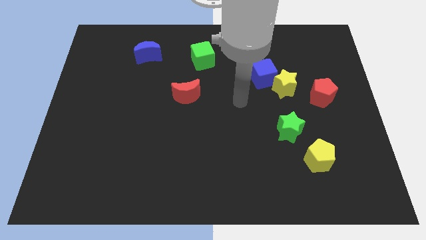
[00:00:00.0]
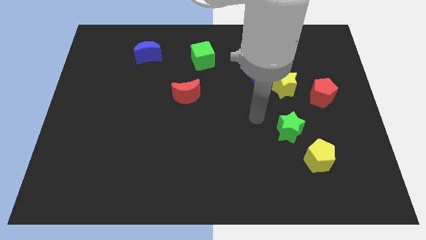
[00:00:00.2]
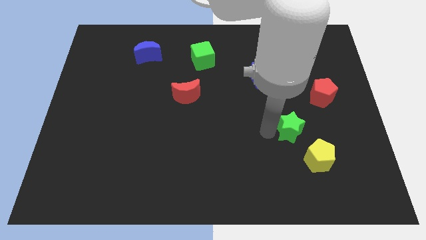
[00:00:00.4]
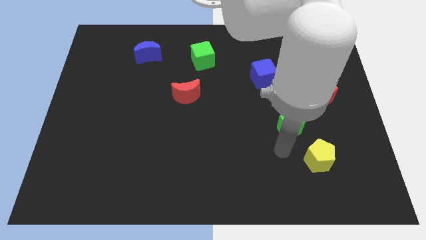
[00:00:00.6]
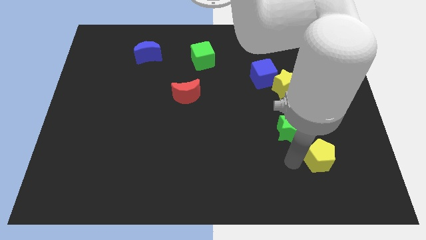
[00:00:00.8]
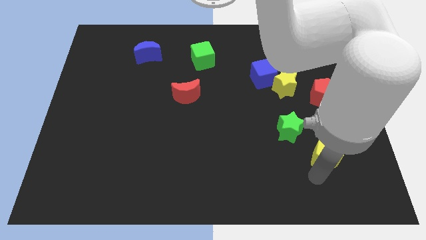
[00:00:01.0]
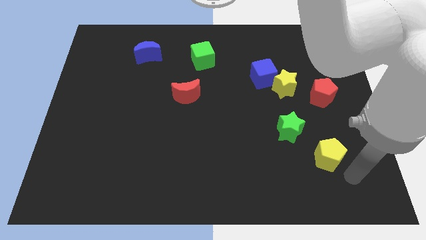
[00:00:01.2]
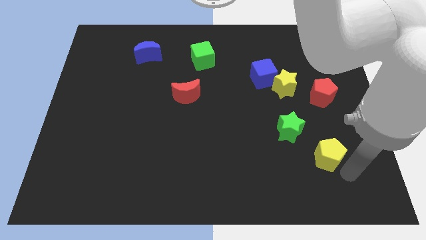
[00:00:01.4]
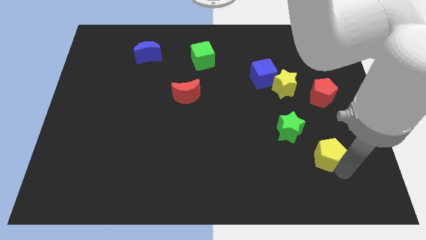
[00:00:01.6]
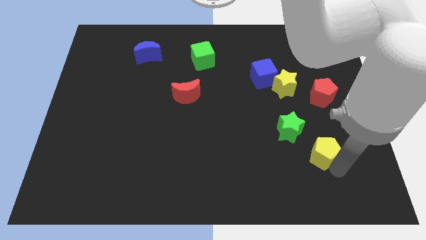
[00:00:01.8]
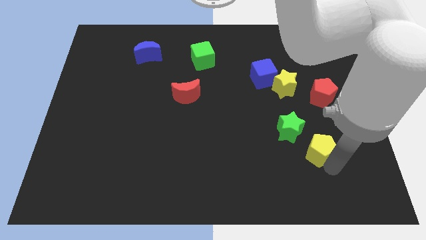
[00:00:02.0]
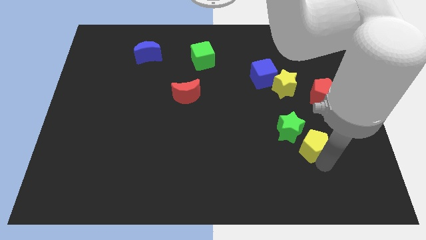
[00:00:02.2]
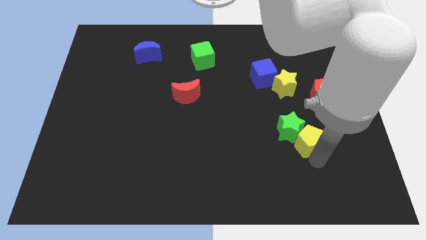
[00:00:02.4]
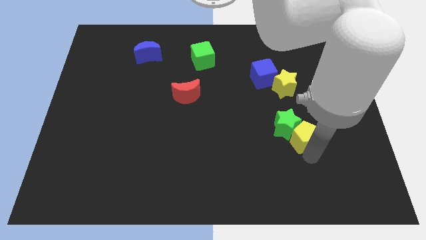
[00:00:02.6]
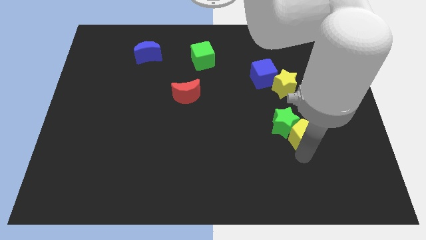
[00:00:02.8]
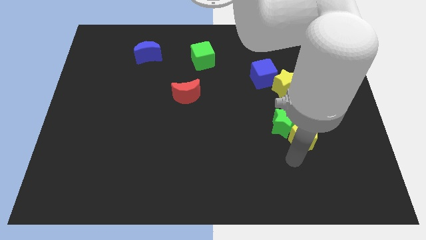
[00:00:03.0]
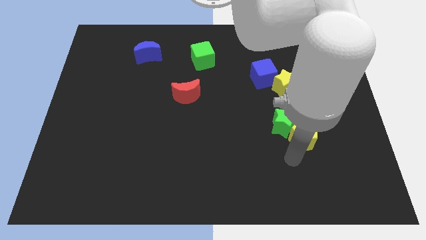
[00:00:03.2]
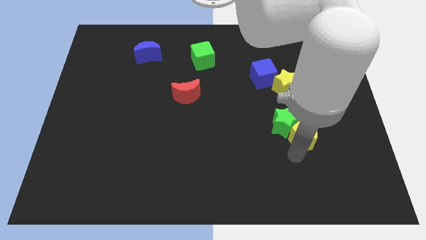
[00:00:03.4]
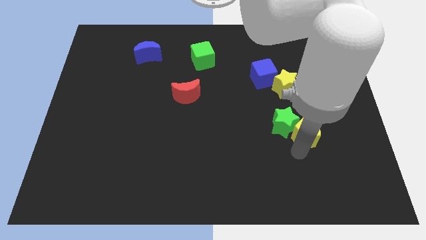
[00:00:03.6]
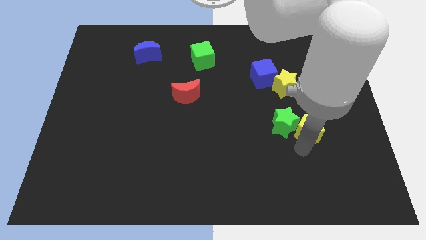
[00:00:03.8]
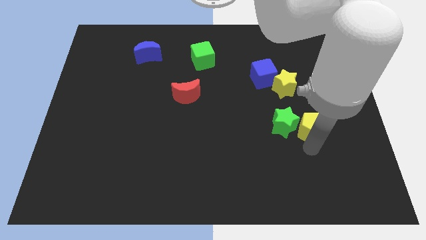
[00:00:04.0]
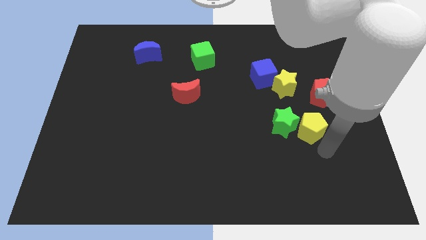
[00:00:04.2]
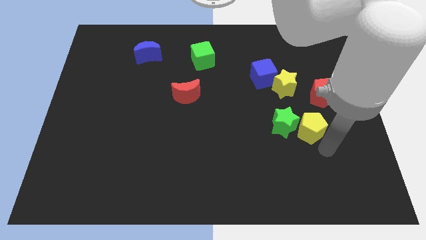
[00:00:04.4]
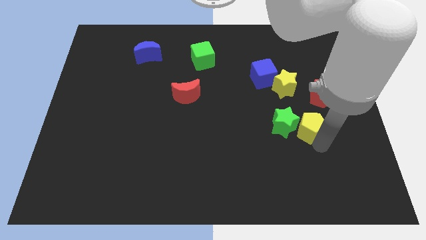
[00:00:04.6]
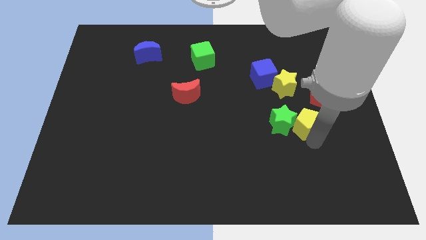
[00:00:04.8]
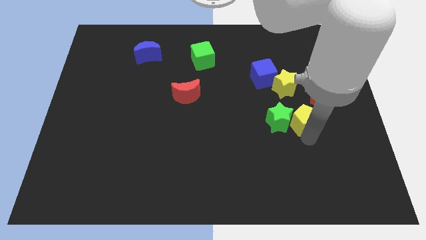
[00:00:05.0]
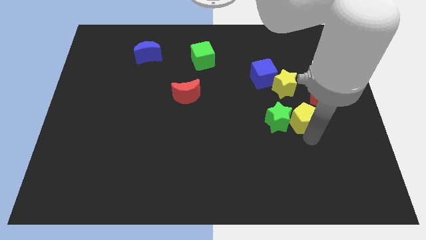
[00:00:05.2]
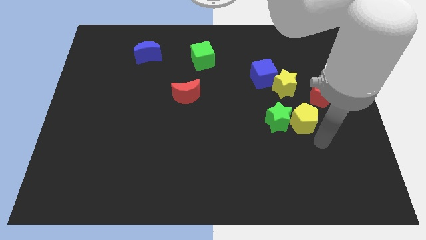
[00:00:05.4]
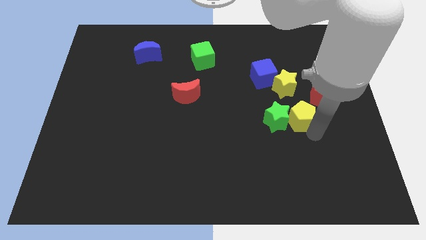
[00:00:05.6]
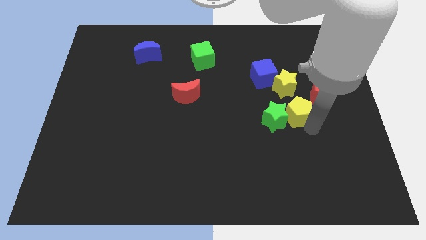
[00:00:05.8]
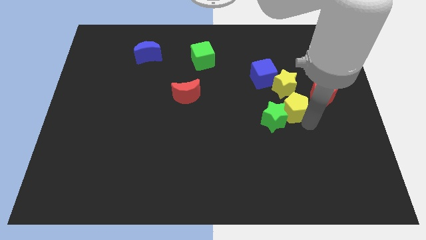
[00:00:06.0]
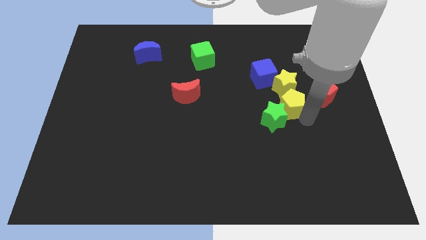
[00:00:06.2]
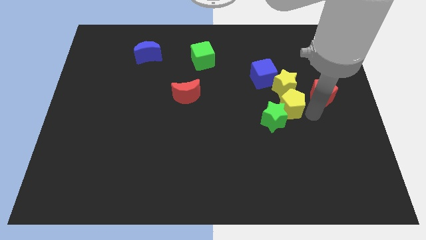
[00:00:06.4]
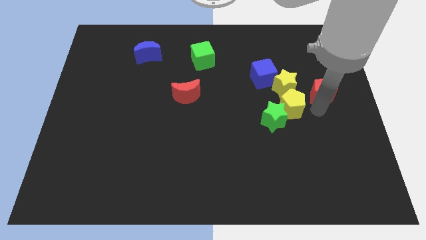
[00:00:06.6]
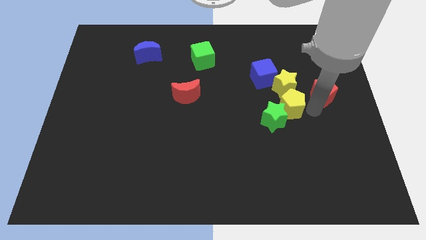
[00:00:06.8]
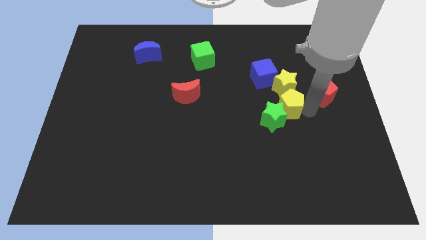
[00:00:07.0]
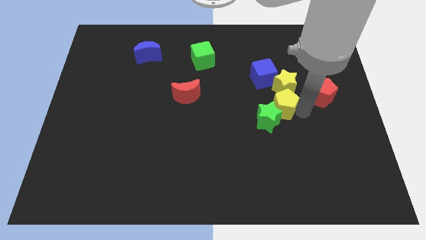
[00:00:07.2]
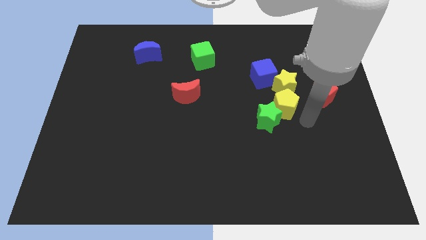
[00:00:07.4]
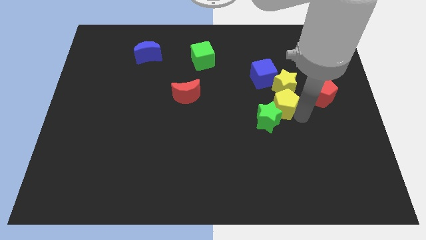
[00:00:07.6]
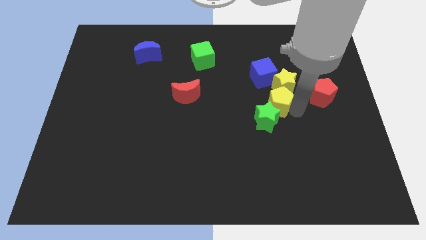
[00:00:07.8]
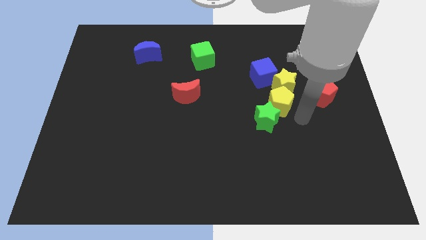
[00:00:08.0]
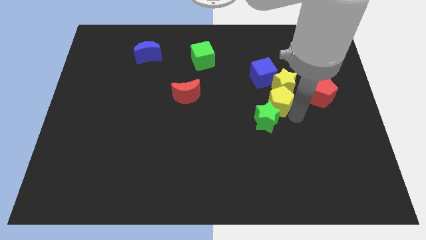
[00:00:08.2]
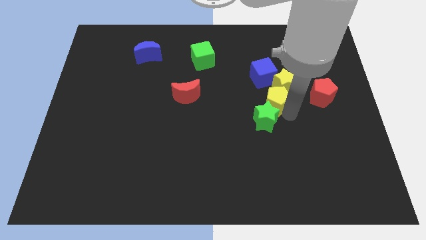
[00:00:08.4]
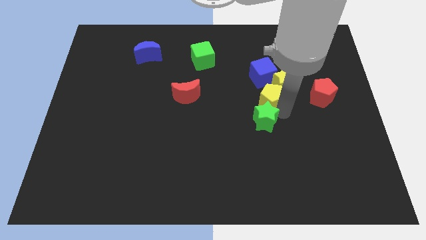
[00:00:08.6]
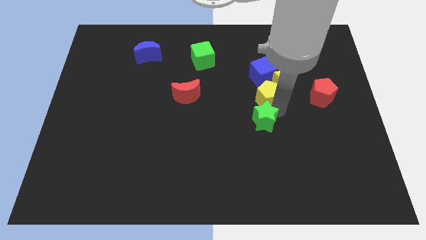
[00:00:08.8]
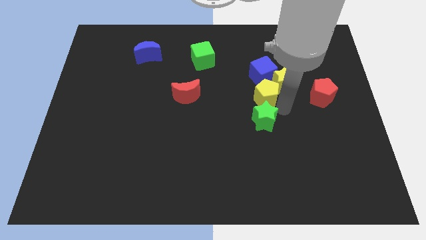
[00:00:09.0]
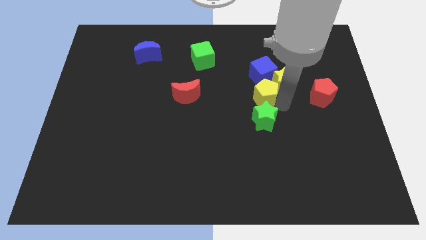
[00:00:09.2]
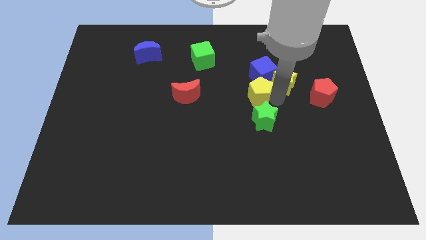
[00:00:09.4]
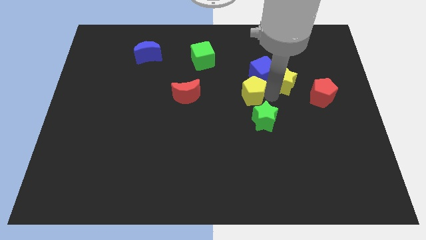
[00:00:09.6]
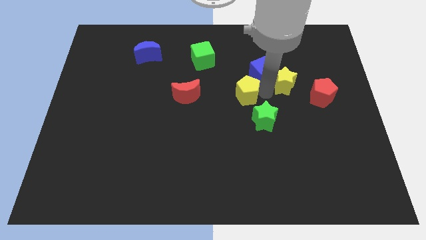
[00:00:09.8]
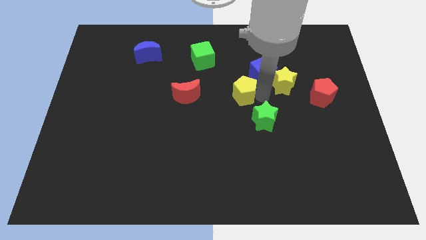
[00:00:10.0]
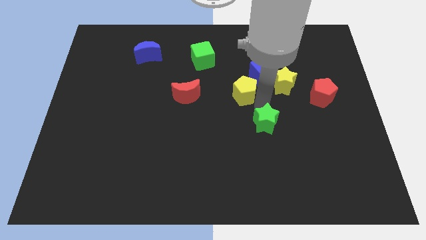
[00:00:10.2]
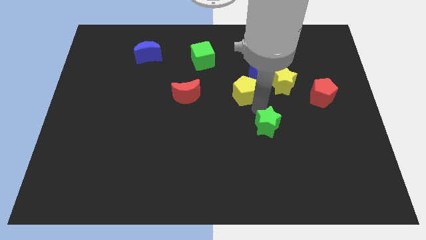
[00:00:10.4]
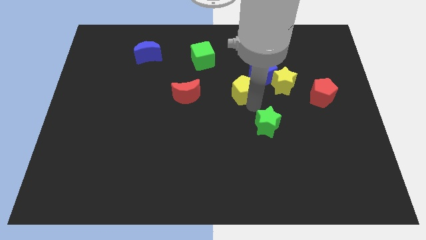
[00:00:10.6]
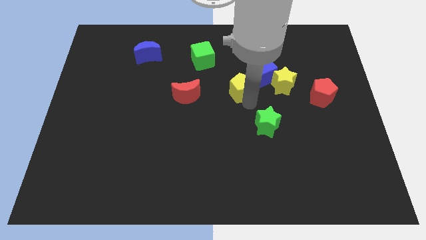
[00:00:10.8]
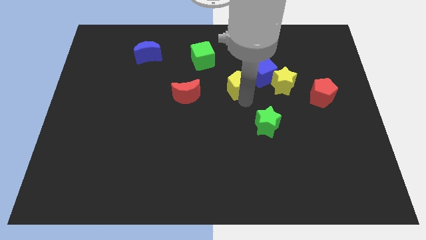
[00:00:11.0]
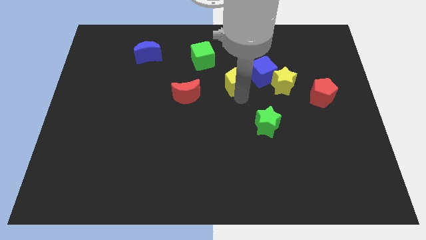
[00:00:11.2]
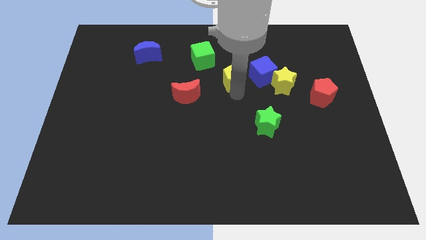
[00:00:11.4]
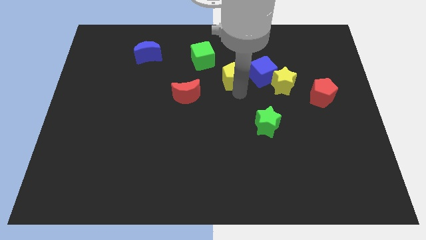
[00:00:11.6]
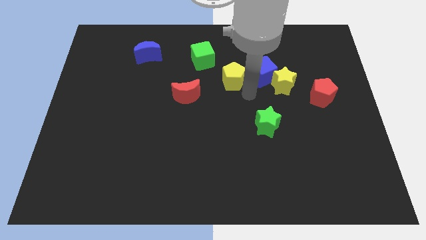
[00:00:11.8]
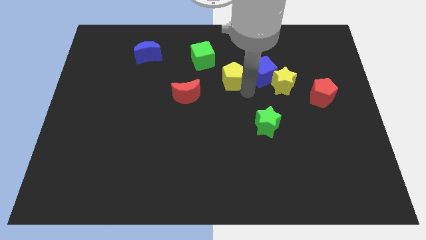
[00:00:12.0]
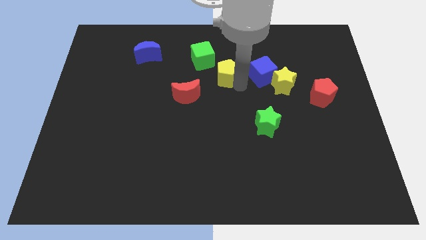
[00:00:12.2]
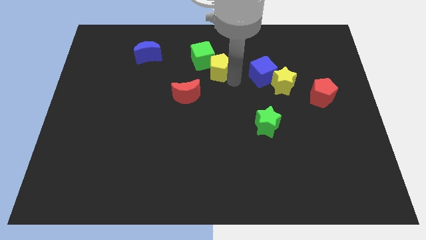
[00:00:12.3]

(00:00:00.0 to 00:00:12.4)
push the yellow pentagon close to the green cube

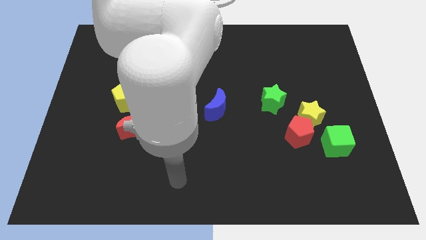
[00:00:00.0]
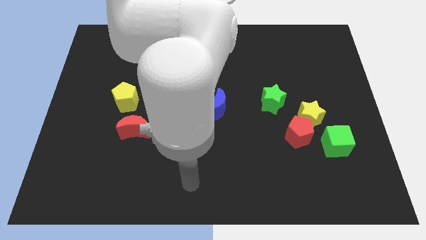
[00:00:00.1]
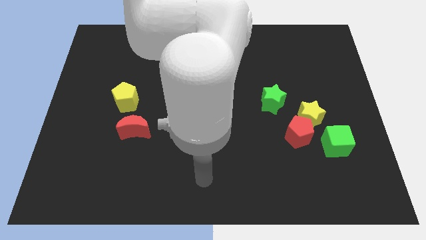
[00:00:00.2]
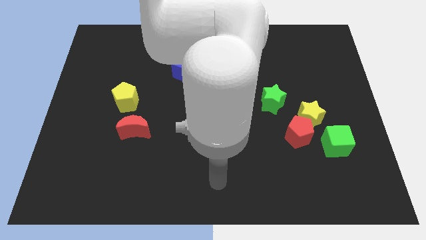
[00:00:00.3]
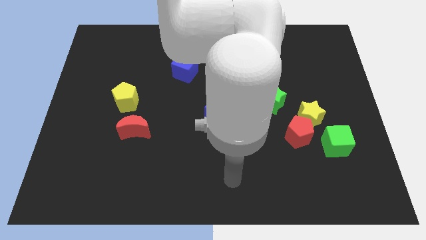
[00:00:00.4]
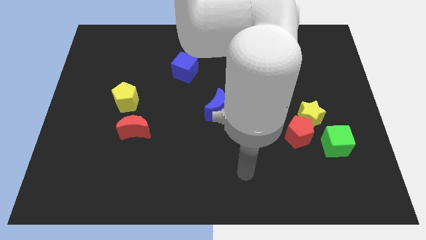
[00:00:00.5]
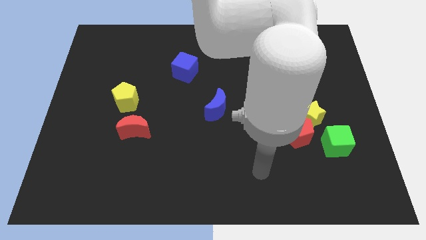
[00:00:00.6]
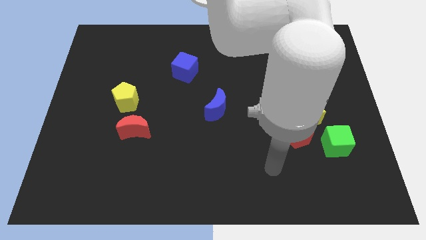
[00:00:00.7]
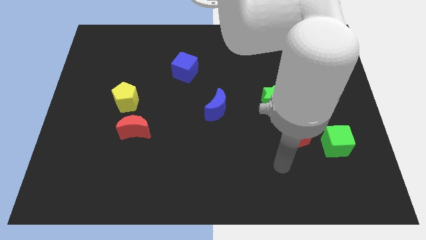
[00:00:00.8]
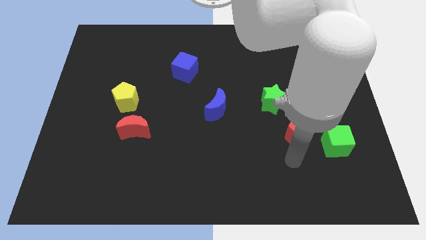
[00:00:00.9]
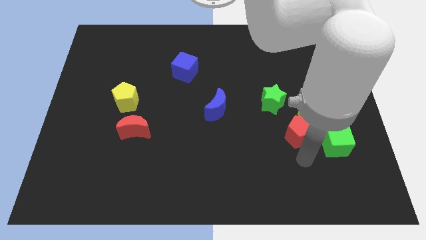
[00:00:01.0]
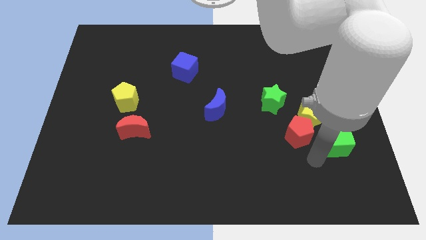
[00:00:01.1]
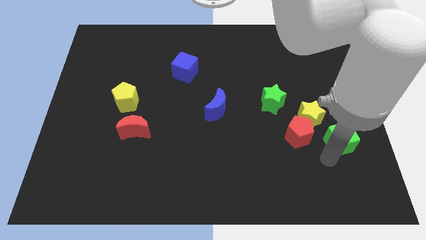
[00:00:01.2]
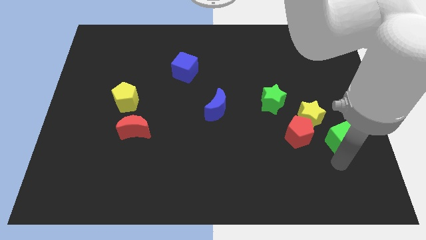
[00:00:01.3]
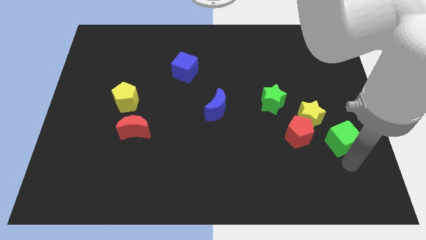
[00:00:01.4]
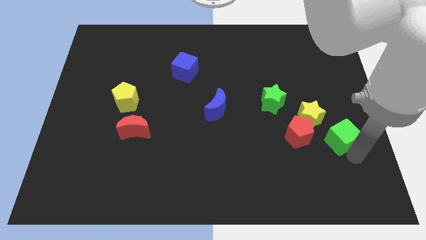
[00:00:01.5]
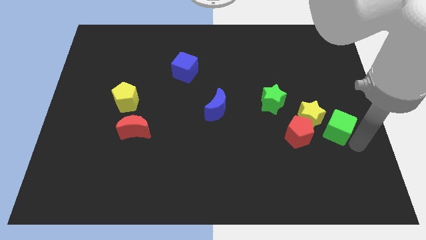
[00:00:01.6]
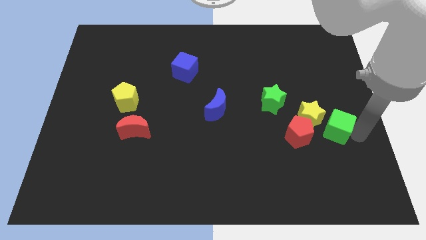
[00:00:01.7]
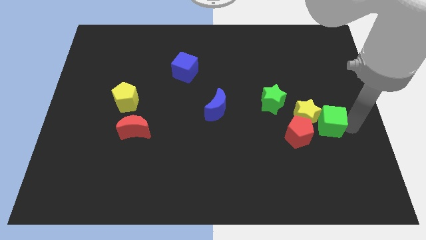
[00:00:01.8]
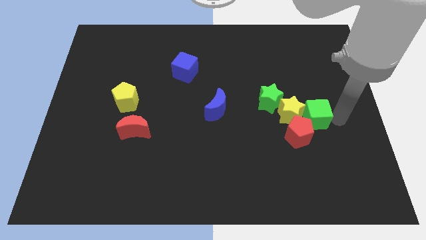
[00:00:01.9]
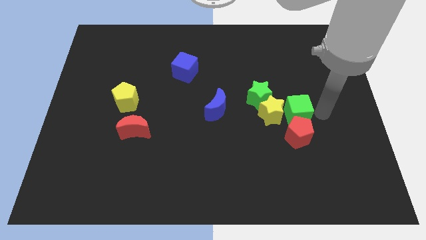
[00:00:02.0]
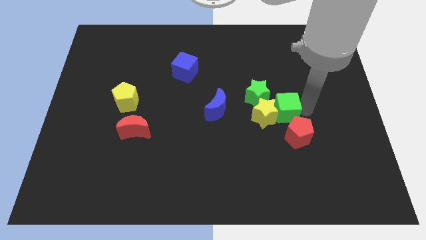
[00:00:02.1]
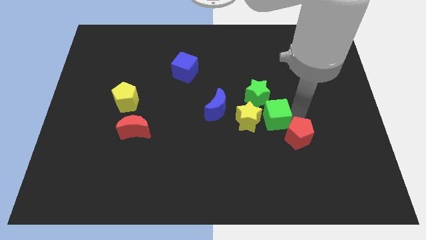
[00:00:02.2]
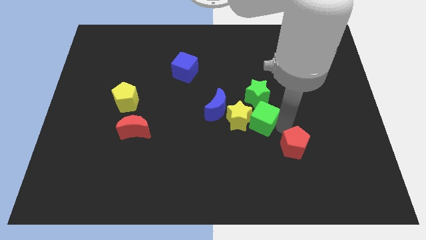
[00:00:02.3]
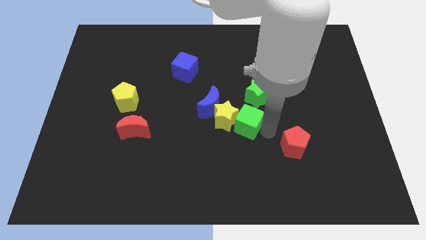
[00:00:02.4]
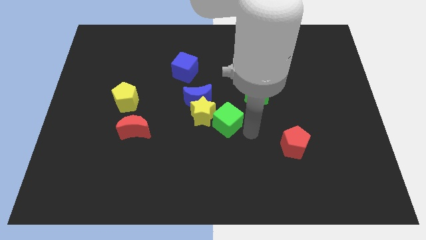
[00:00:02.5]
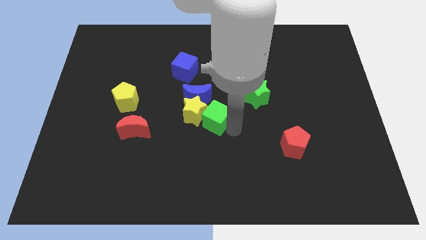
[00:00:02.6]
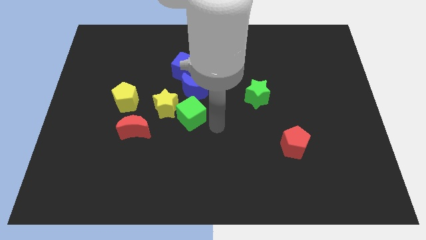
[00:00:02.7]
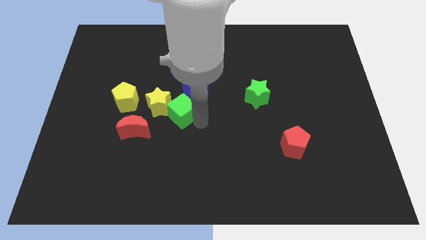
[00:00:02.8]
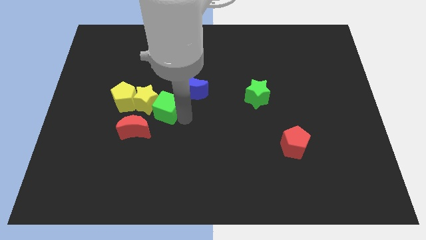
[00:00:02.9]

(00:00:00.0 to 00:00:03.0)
slide the yellow star next to the yellow pentagon
